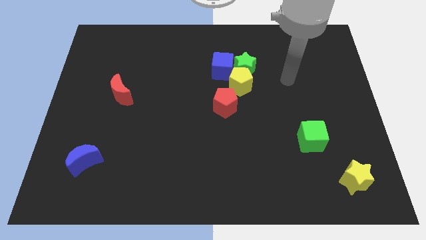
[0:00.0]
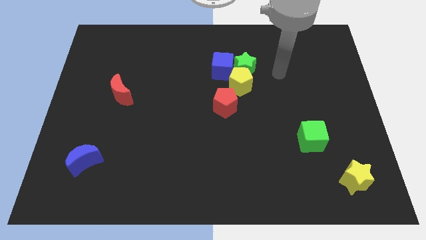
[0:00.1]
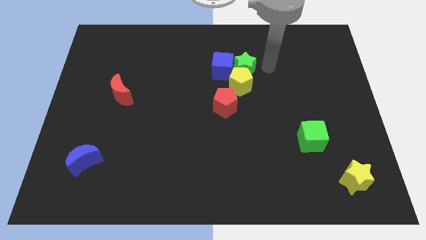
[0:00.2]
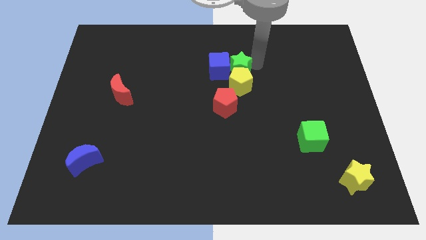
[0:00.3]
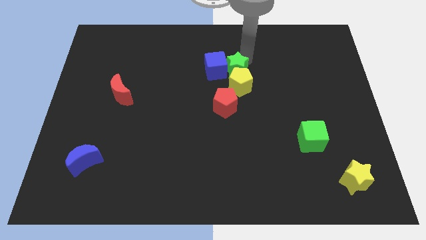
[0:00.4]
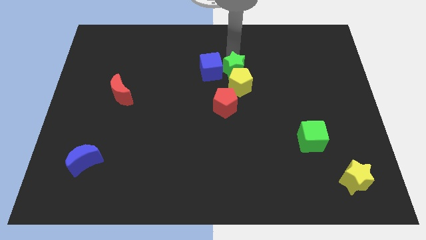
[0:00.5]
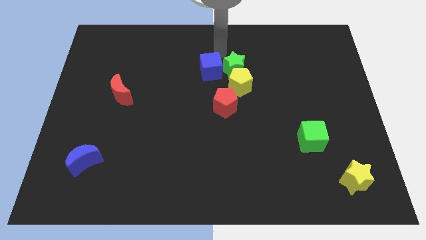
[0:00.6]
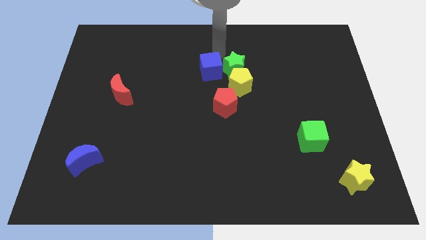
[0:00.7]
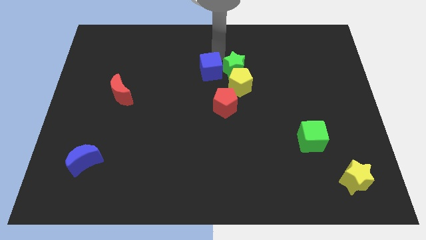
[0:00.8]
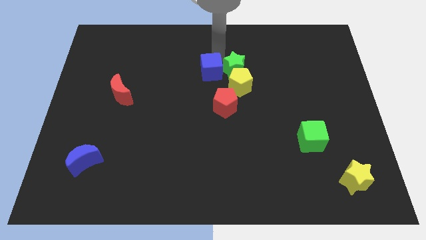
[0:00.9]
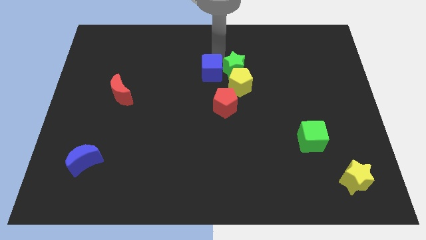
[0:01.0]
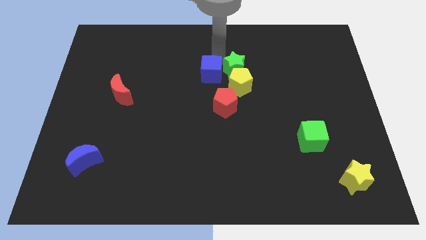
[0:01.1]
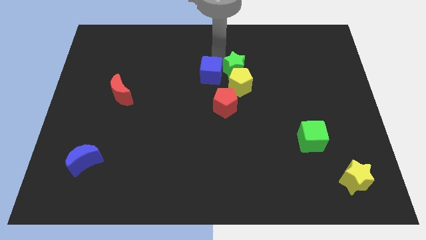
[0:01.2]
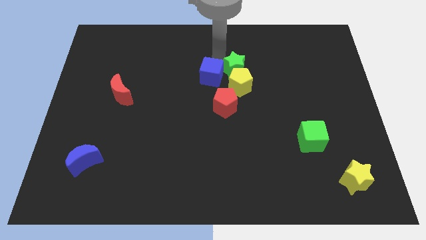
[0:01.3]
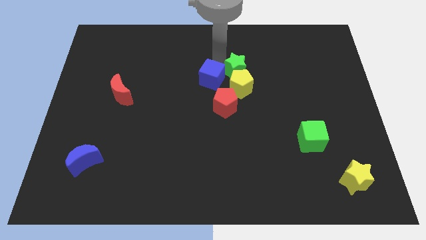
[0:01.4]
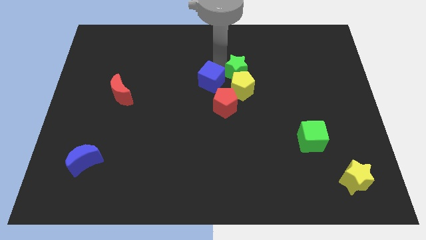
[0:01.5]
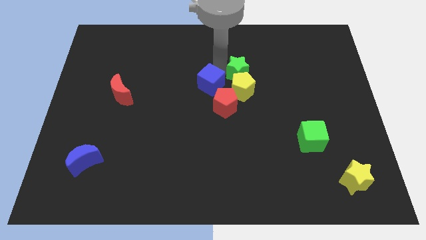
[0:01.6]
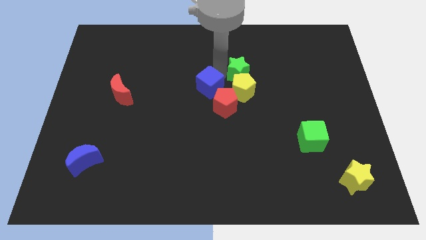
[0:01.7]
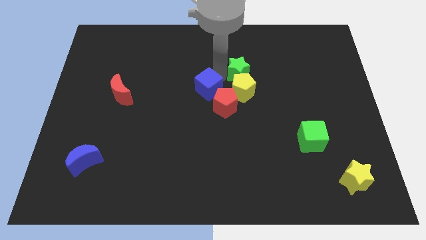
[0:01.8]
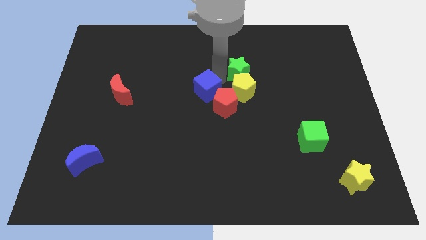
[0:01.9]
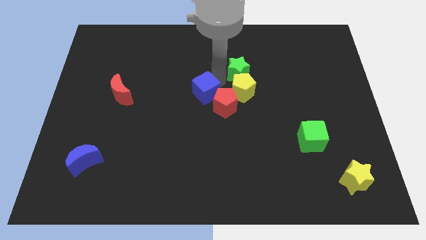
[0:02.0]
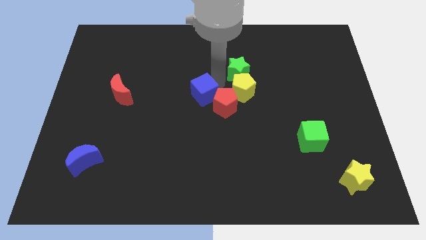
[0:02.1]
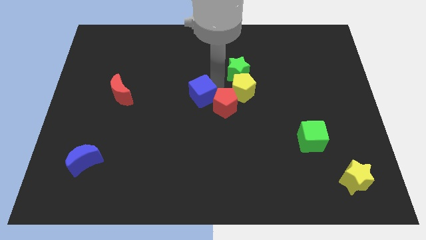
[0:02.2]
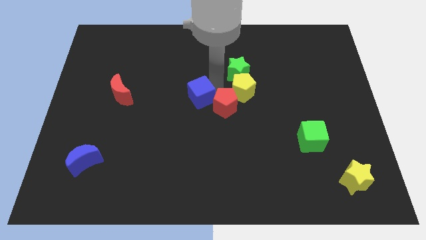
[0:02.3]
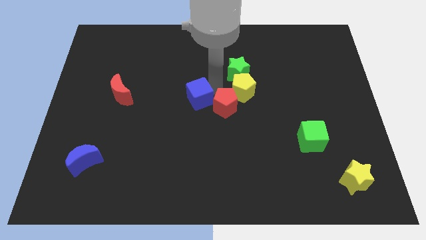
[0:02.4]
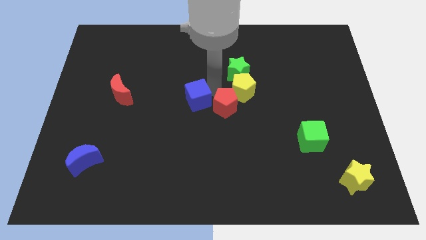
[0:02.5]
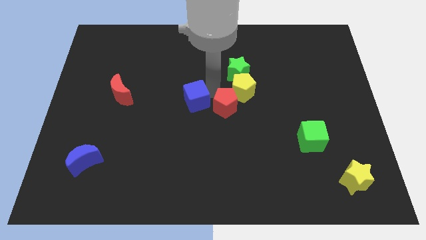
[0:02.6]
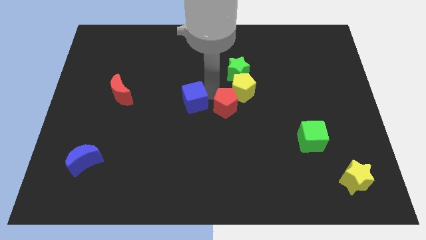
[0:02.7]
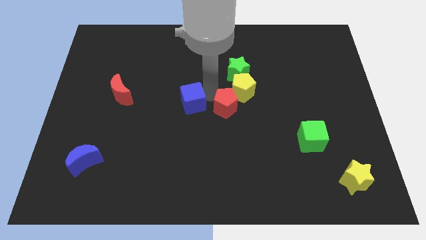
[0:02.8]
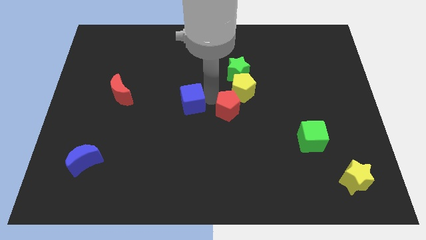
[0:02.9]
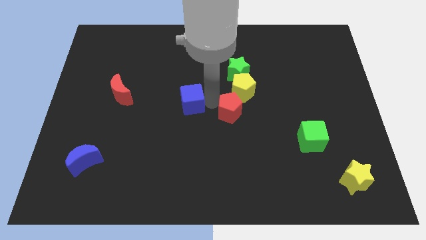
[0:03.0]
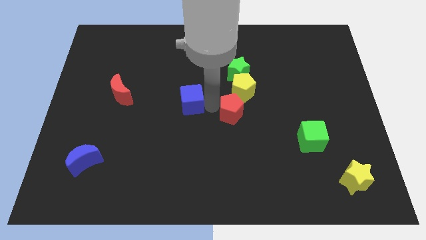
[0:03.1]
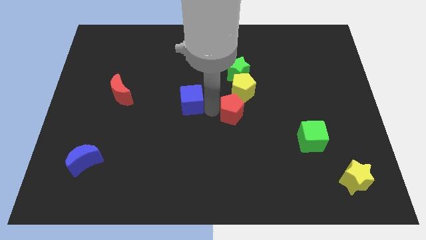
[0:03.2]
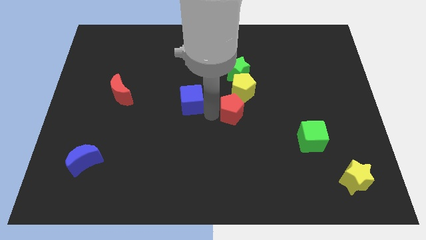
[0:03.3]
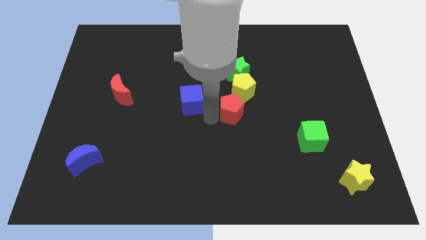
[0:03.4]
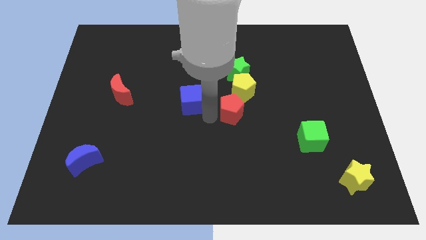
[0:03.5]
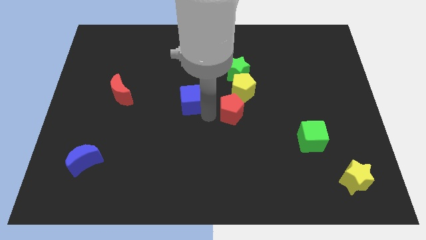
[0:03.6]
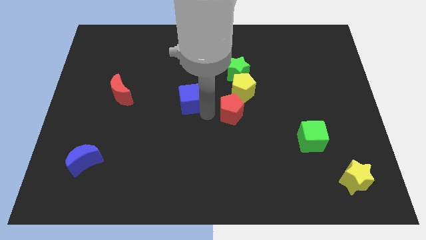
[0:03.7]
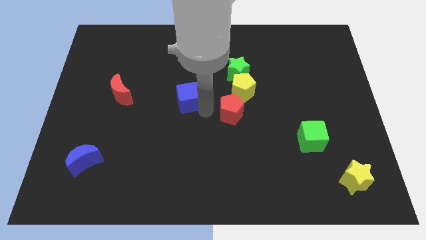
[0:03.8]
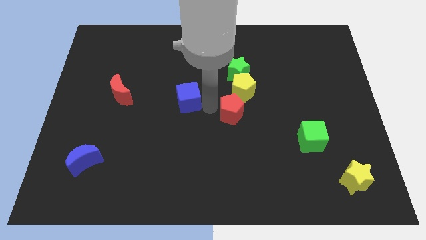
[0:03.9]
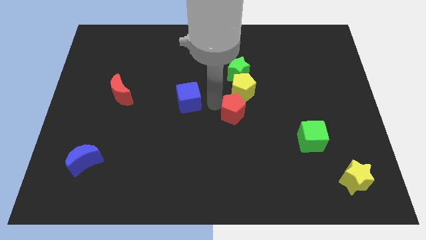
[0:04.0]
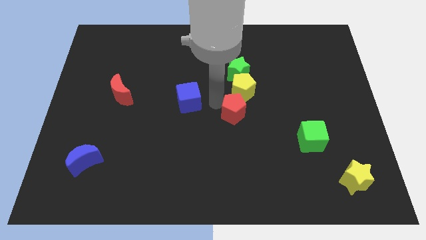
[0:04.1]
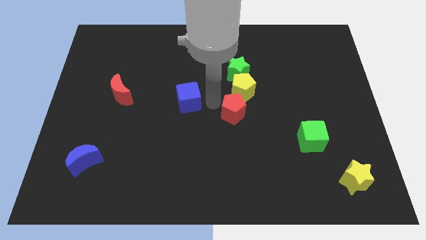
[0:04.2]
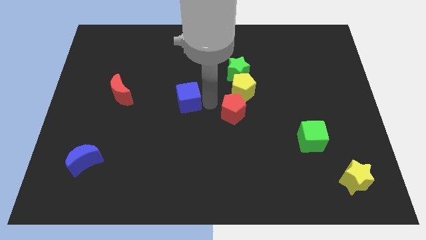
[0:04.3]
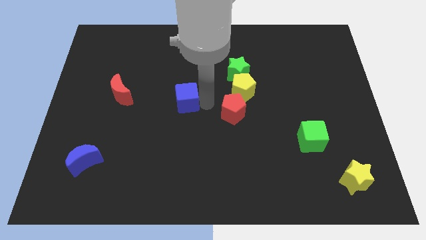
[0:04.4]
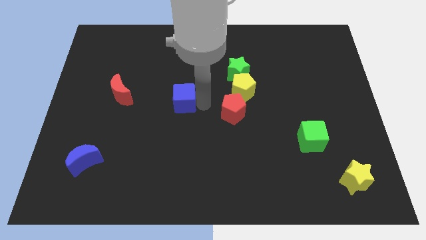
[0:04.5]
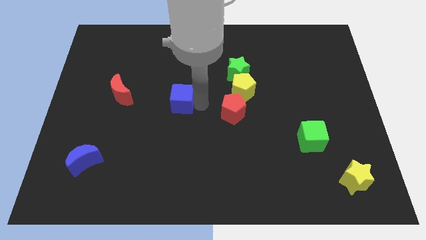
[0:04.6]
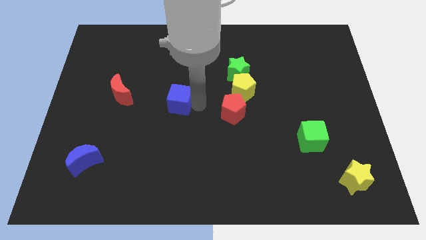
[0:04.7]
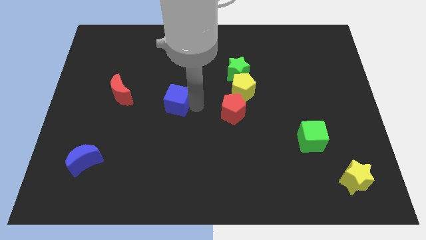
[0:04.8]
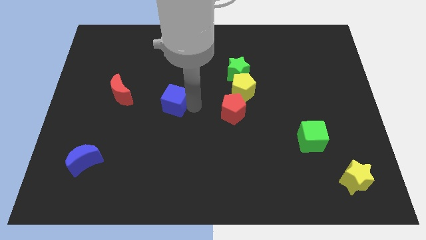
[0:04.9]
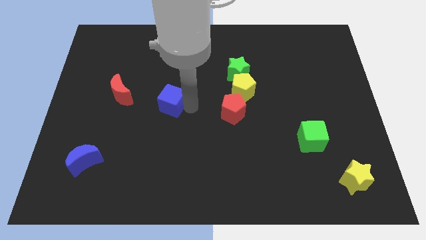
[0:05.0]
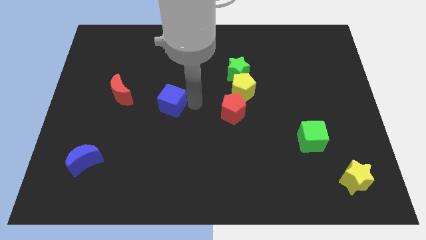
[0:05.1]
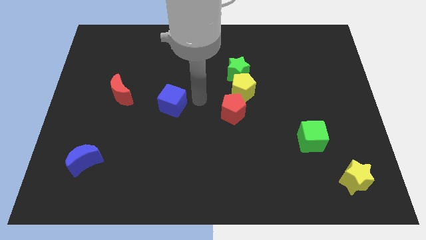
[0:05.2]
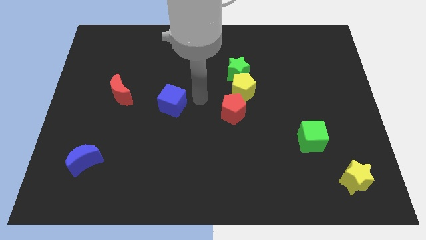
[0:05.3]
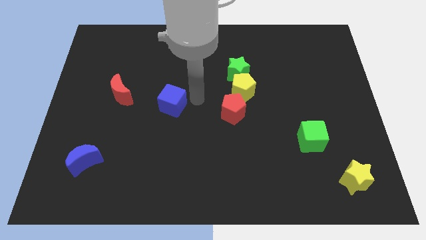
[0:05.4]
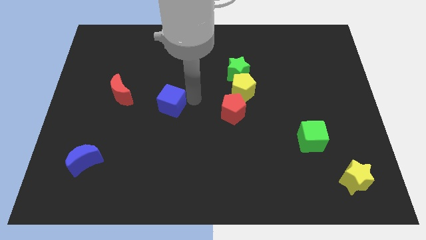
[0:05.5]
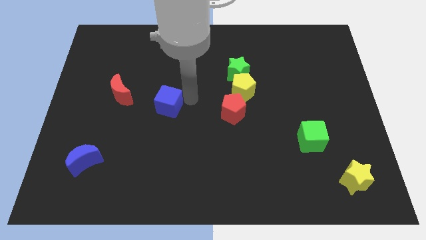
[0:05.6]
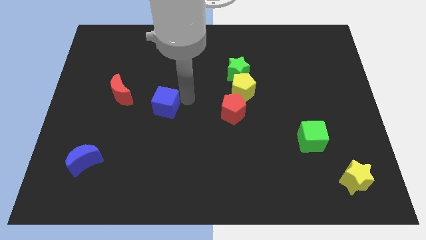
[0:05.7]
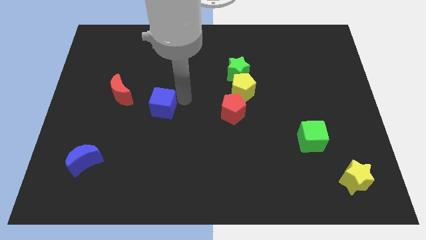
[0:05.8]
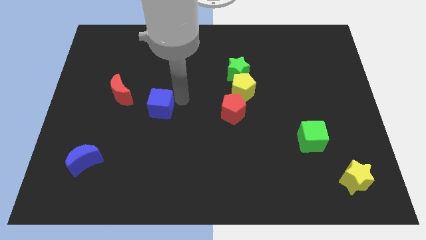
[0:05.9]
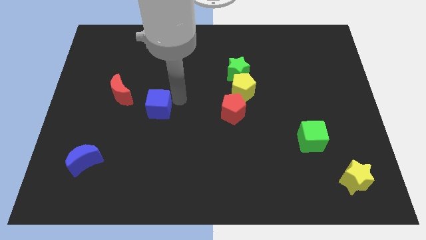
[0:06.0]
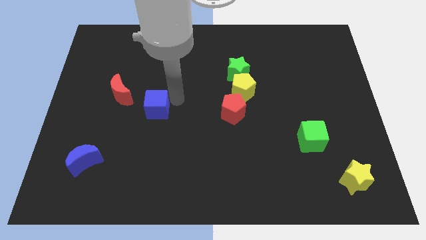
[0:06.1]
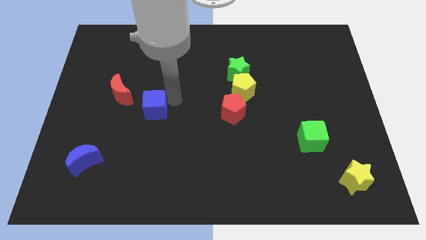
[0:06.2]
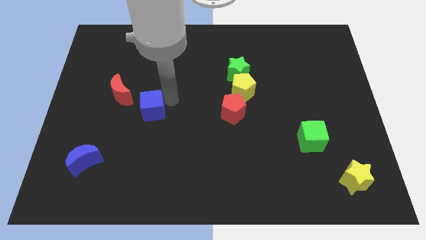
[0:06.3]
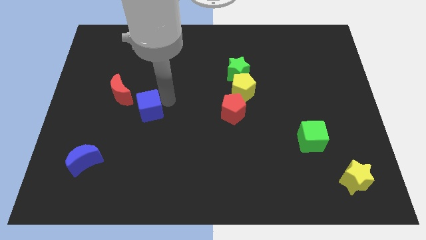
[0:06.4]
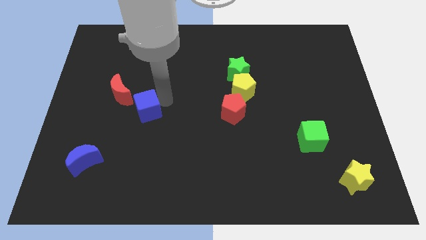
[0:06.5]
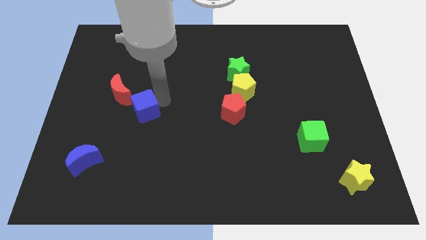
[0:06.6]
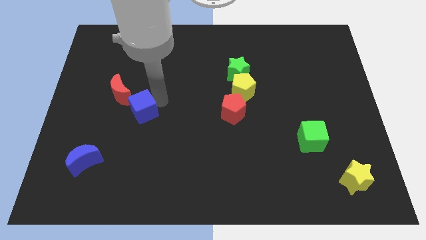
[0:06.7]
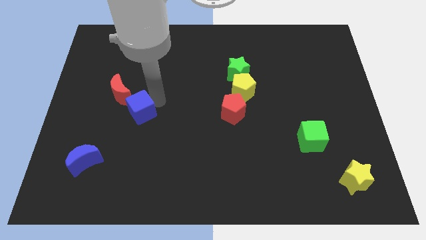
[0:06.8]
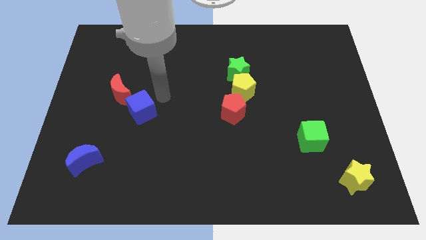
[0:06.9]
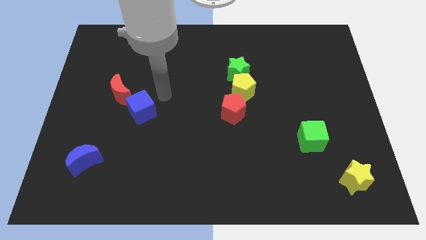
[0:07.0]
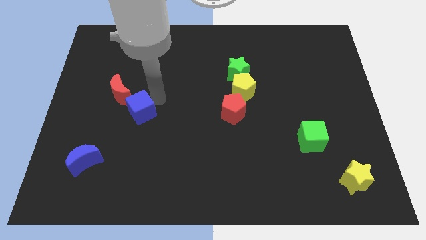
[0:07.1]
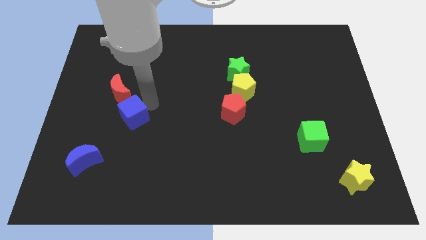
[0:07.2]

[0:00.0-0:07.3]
put the blue cube below the red moon

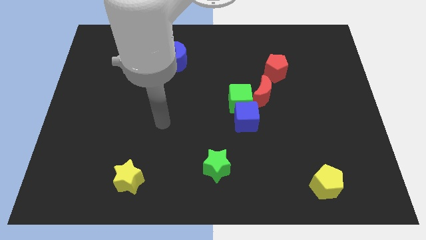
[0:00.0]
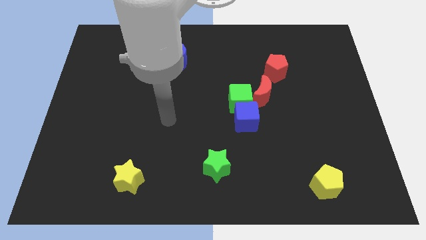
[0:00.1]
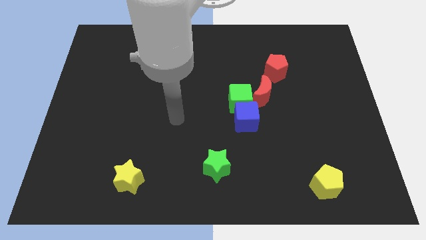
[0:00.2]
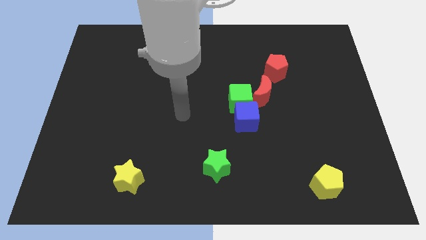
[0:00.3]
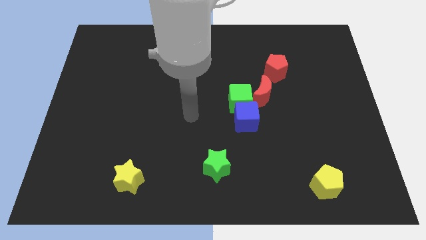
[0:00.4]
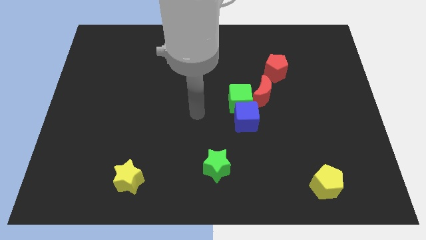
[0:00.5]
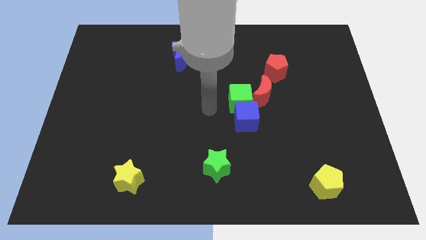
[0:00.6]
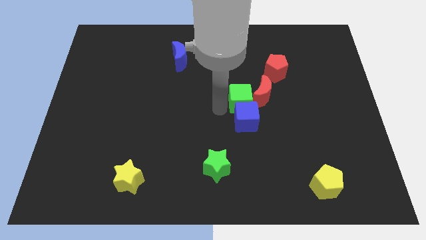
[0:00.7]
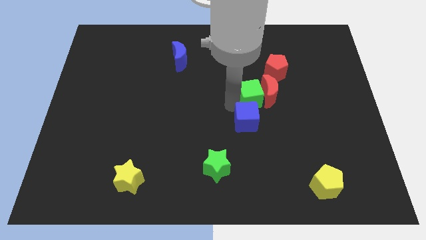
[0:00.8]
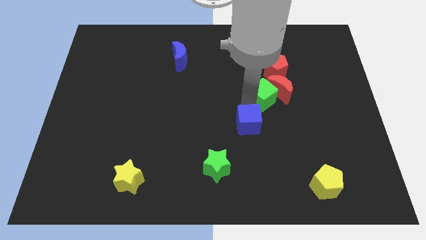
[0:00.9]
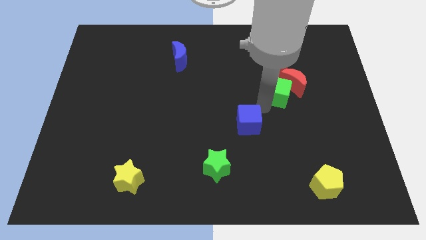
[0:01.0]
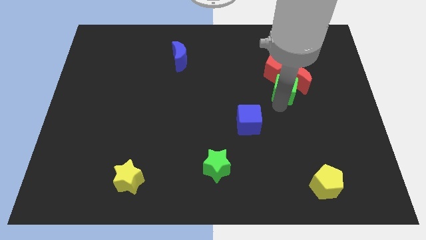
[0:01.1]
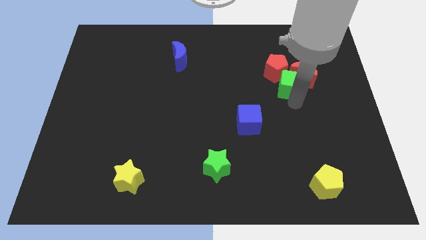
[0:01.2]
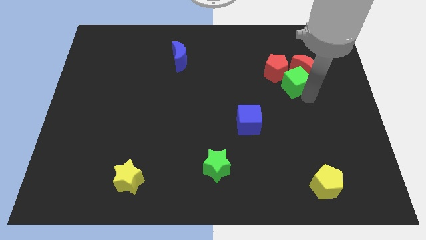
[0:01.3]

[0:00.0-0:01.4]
push the red moon diagonally up and to the right of the red pentagon
